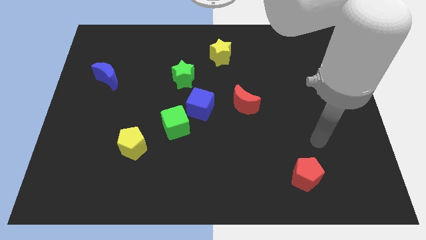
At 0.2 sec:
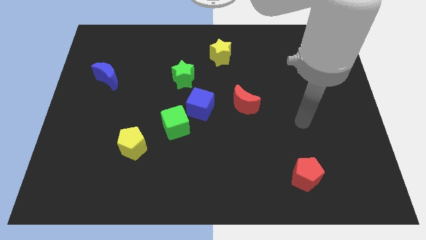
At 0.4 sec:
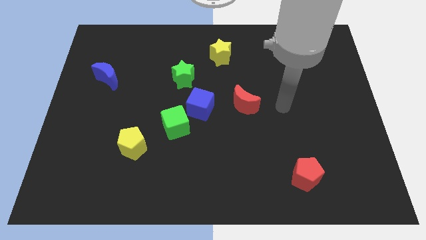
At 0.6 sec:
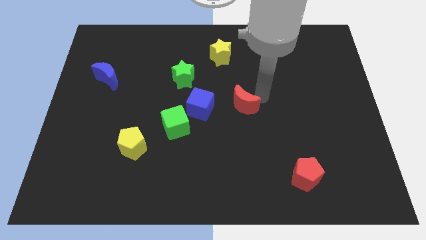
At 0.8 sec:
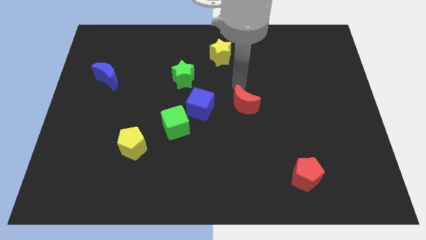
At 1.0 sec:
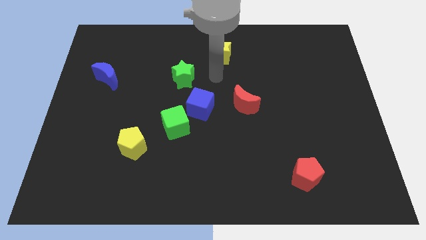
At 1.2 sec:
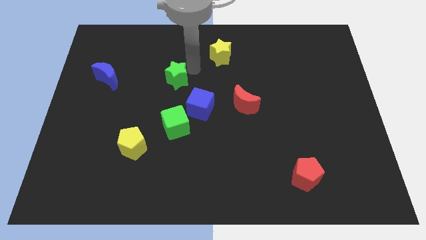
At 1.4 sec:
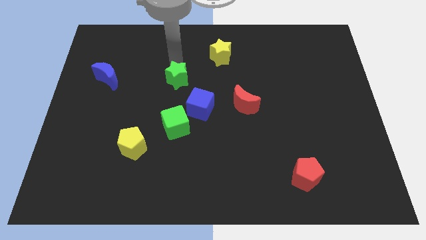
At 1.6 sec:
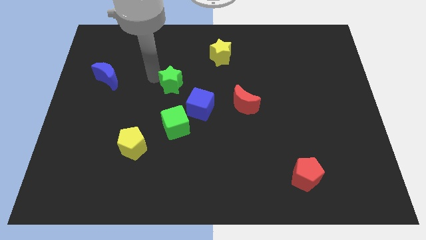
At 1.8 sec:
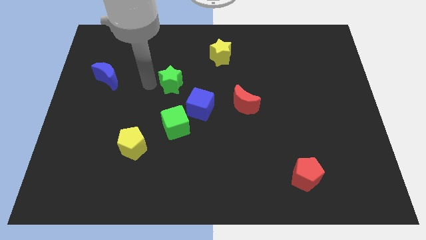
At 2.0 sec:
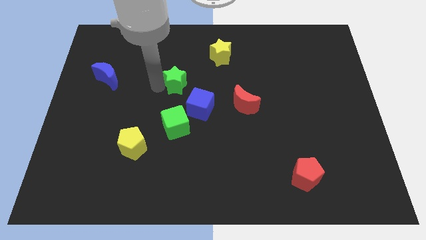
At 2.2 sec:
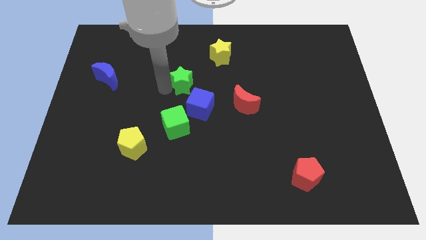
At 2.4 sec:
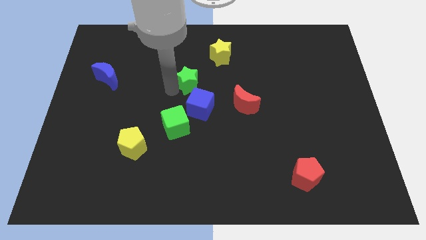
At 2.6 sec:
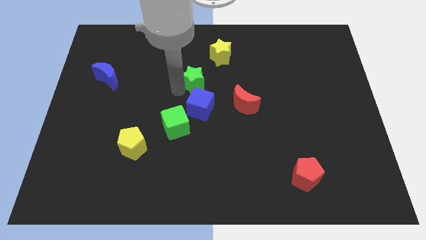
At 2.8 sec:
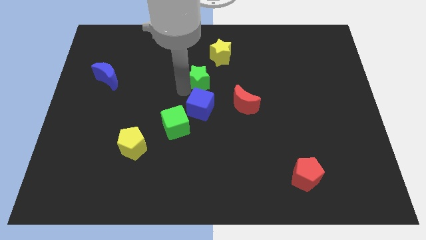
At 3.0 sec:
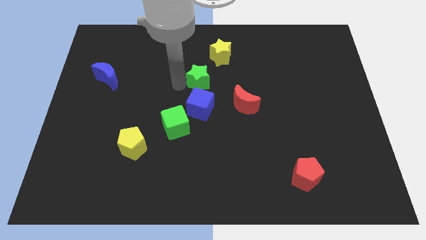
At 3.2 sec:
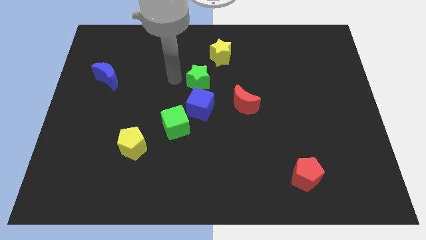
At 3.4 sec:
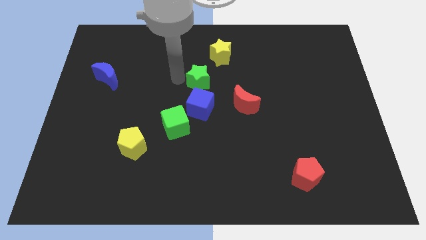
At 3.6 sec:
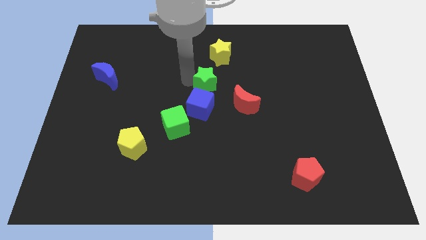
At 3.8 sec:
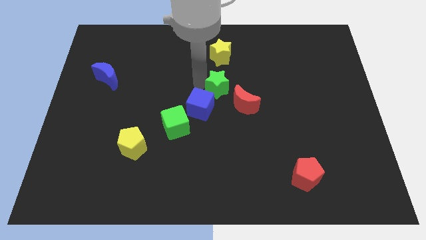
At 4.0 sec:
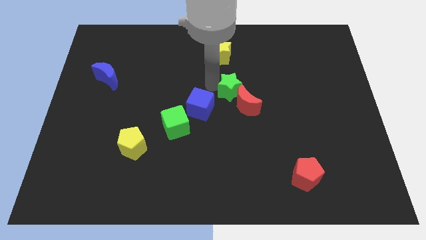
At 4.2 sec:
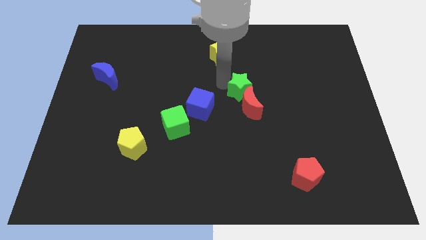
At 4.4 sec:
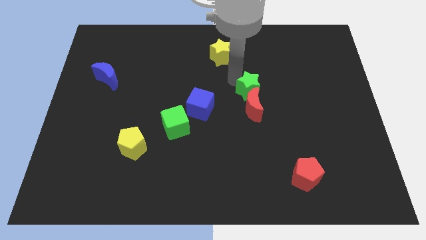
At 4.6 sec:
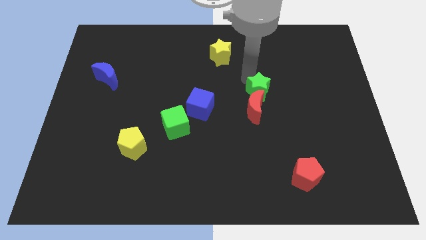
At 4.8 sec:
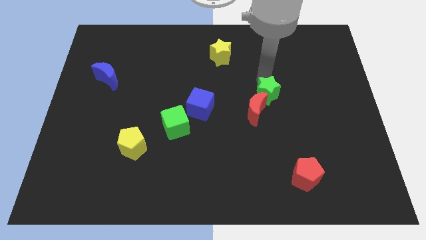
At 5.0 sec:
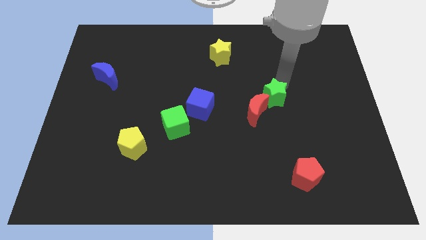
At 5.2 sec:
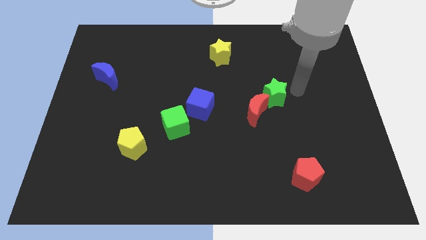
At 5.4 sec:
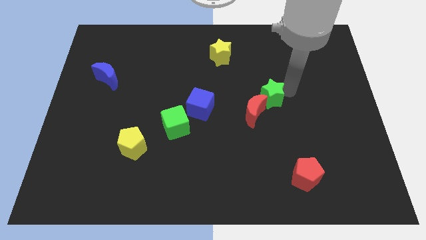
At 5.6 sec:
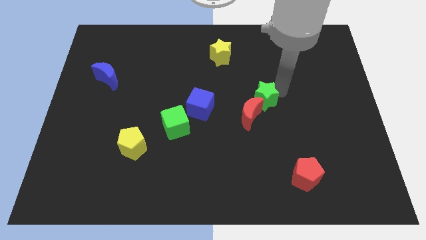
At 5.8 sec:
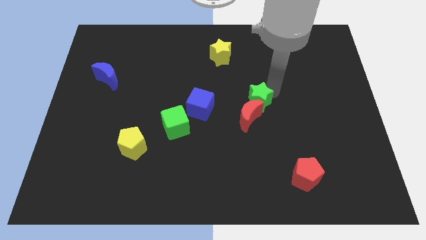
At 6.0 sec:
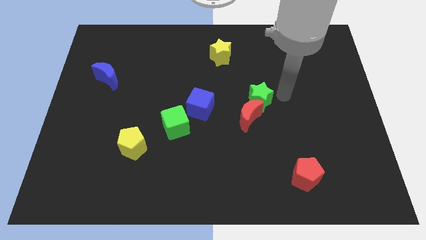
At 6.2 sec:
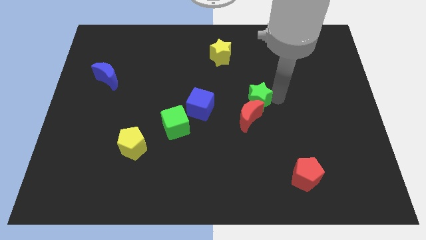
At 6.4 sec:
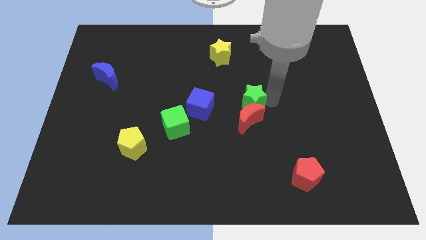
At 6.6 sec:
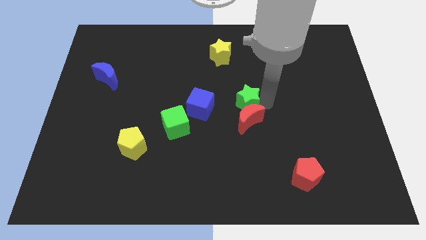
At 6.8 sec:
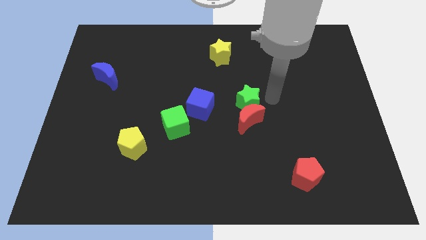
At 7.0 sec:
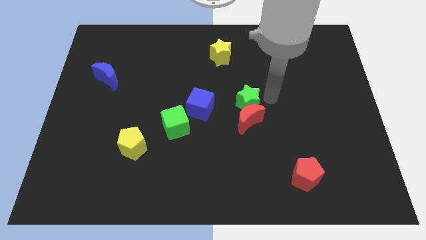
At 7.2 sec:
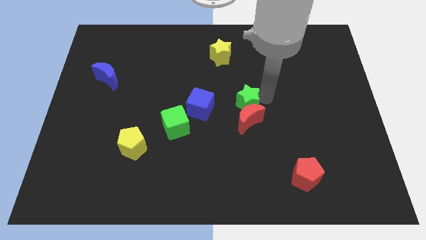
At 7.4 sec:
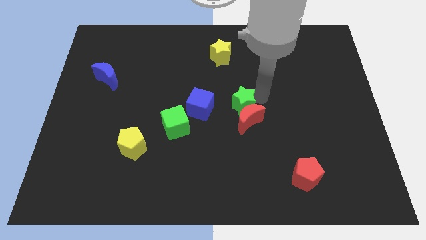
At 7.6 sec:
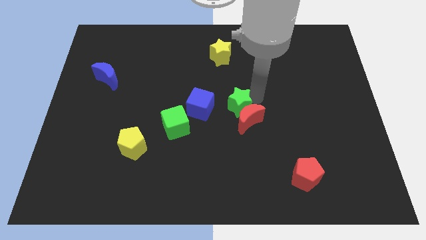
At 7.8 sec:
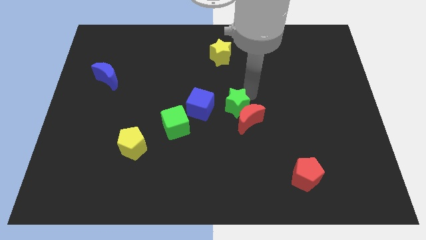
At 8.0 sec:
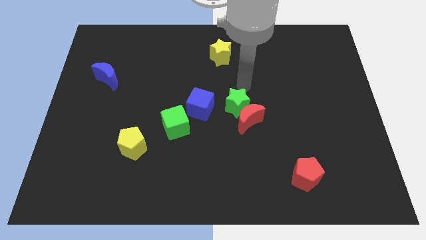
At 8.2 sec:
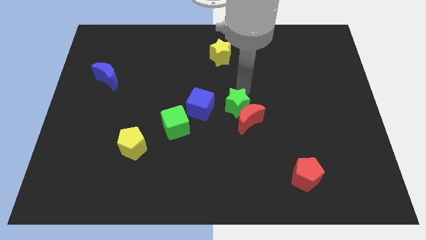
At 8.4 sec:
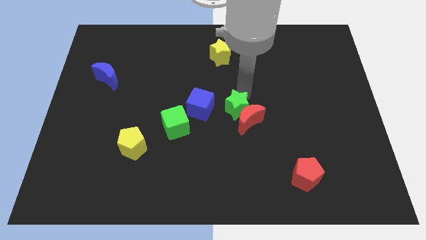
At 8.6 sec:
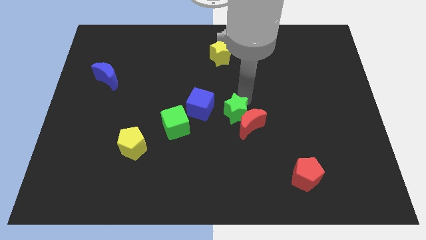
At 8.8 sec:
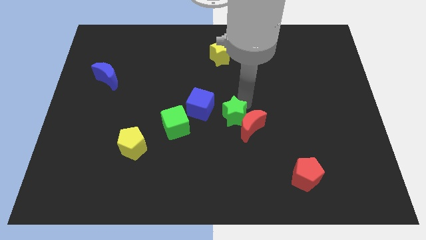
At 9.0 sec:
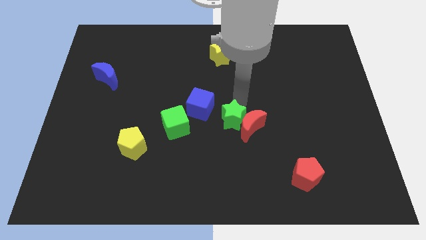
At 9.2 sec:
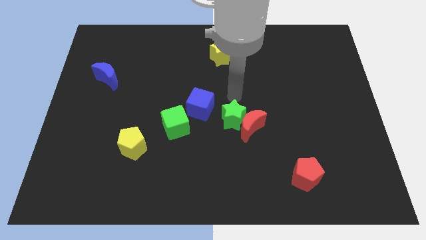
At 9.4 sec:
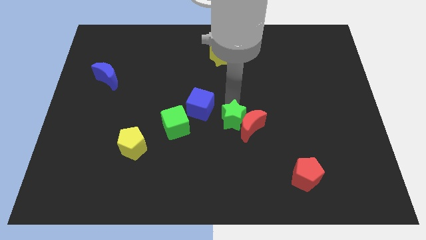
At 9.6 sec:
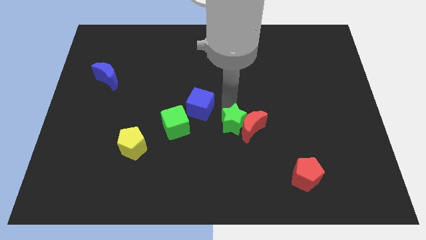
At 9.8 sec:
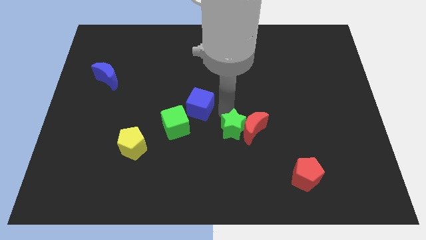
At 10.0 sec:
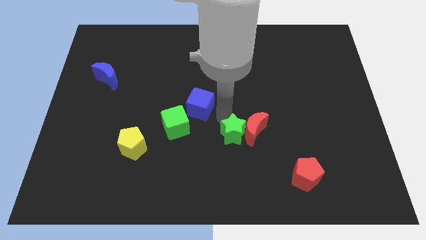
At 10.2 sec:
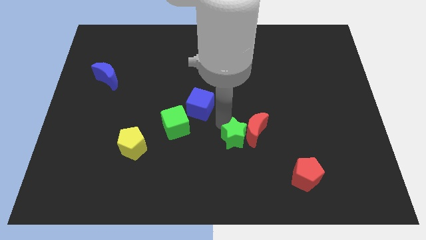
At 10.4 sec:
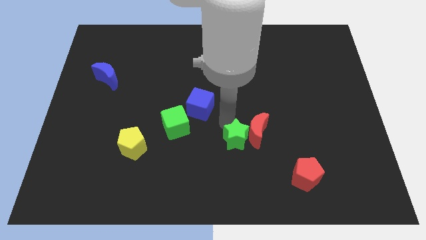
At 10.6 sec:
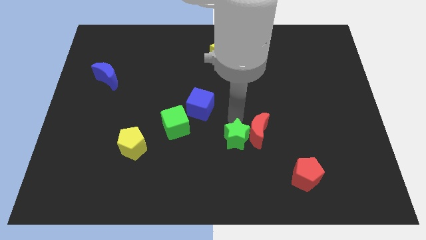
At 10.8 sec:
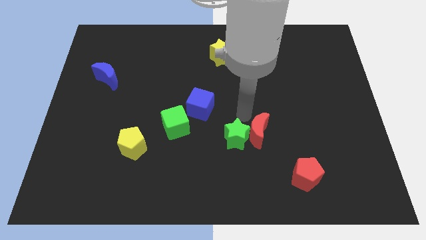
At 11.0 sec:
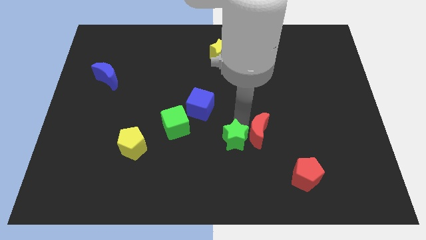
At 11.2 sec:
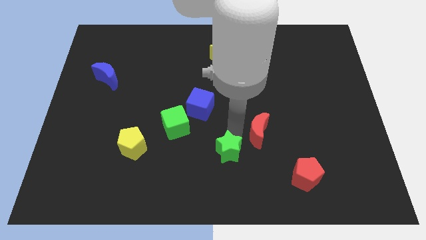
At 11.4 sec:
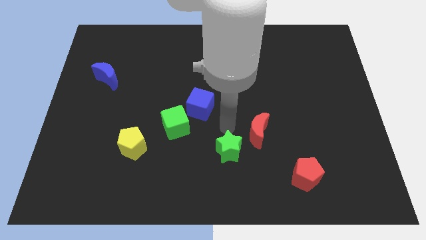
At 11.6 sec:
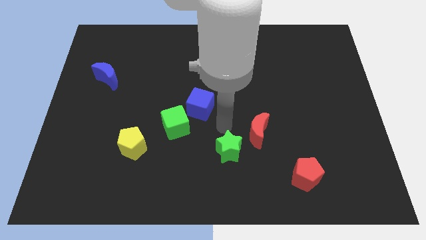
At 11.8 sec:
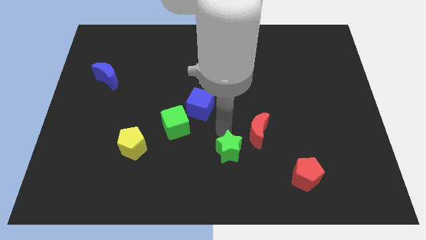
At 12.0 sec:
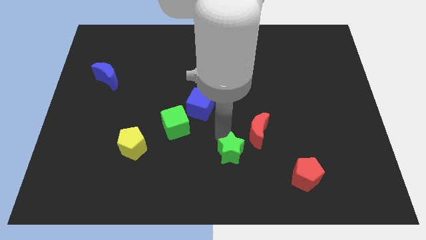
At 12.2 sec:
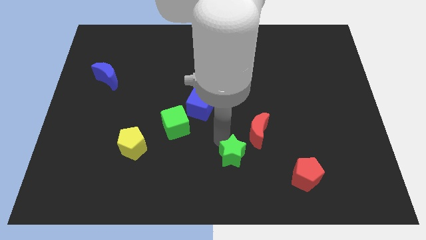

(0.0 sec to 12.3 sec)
push the green star to the bottom side
